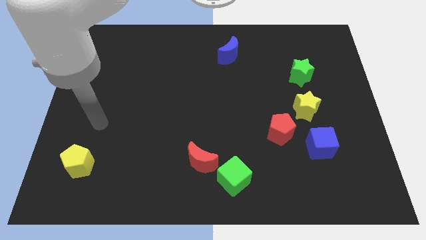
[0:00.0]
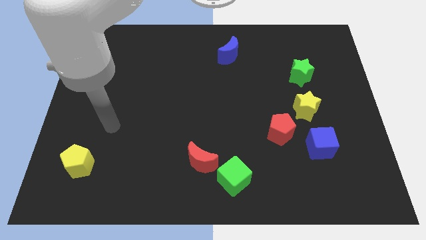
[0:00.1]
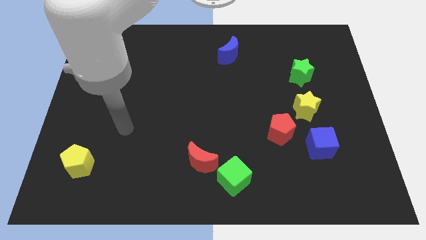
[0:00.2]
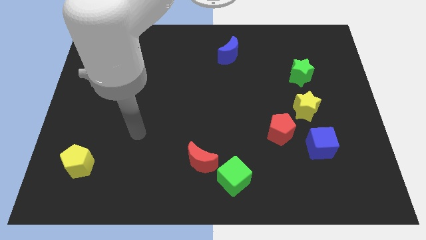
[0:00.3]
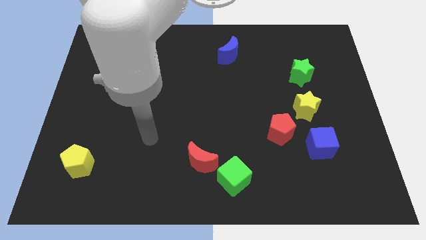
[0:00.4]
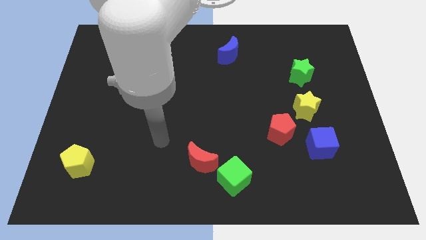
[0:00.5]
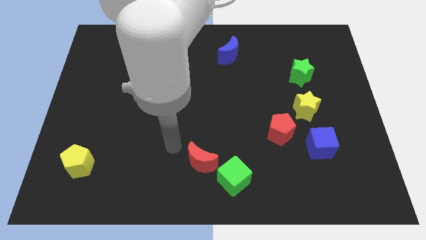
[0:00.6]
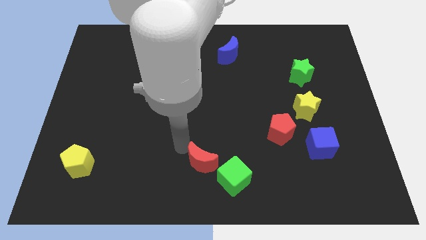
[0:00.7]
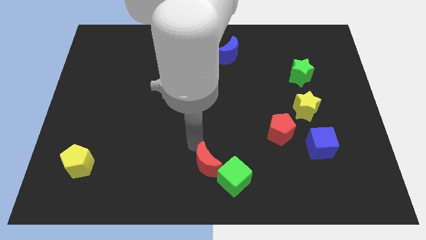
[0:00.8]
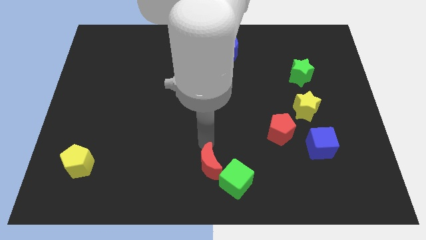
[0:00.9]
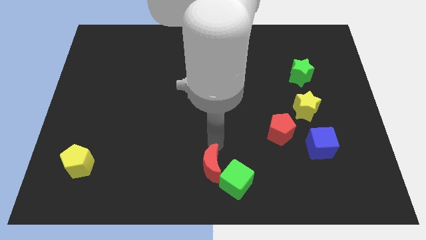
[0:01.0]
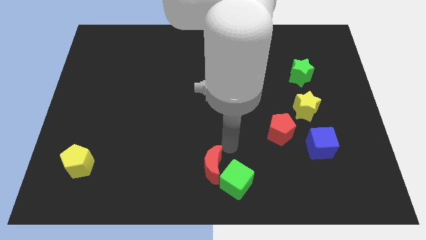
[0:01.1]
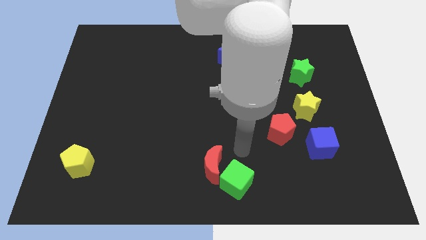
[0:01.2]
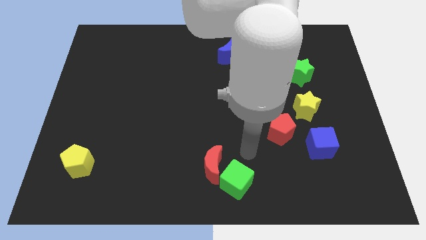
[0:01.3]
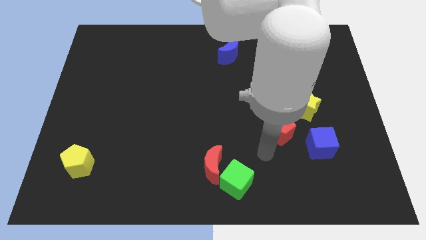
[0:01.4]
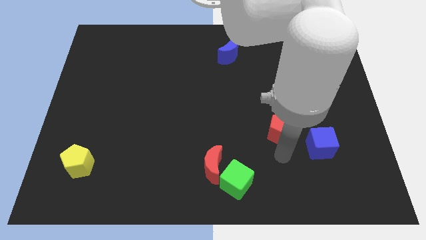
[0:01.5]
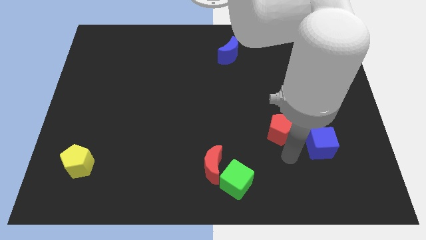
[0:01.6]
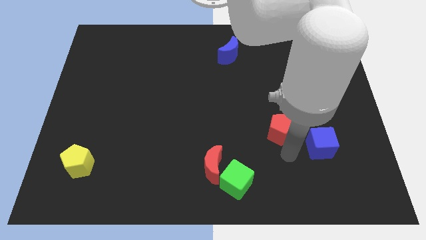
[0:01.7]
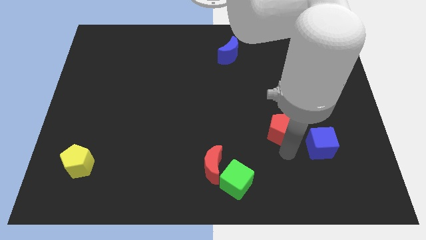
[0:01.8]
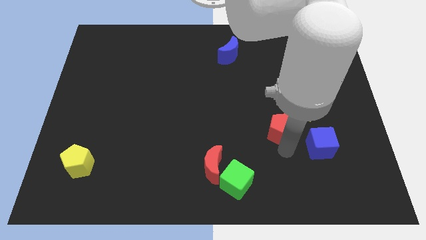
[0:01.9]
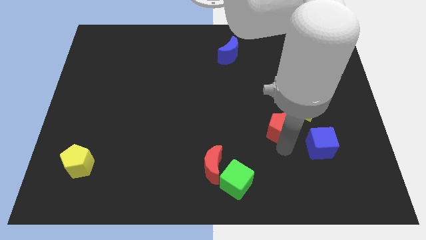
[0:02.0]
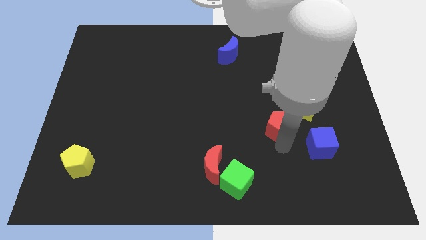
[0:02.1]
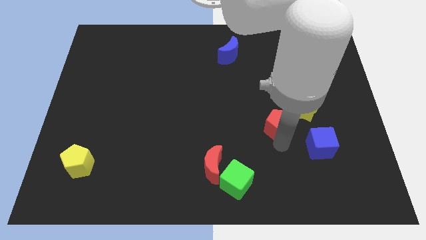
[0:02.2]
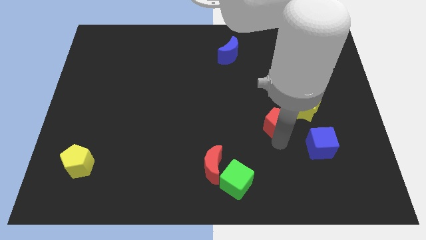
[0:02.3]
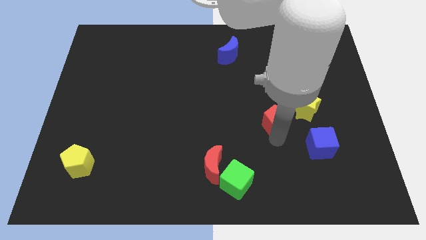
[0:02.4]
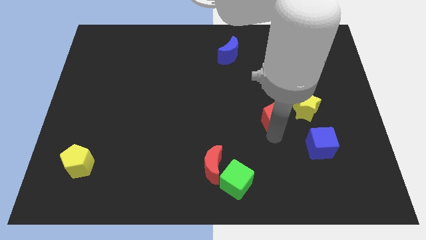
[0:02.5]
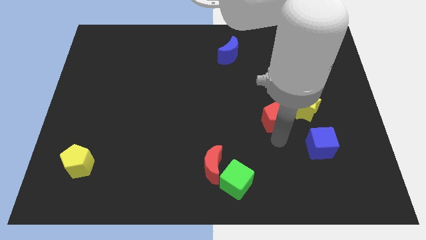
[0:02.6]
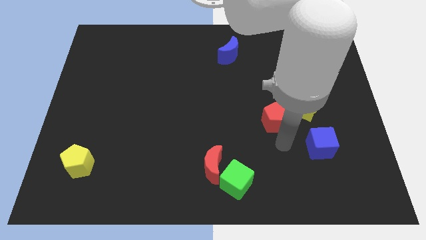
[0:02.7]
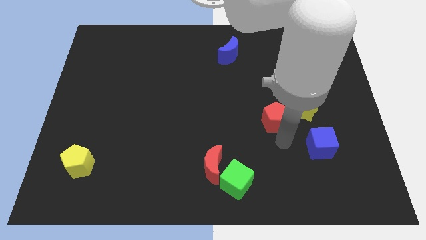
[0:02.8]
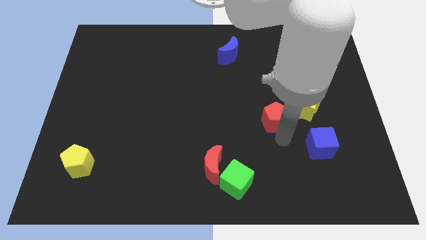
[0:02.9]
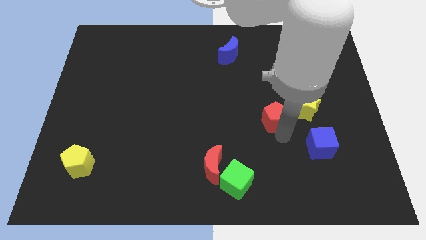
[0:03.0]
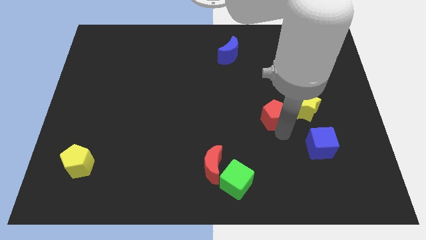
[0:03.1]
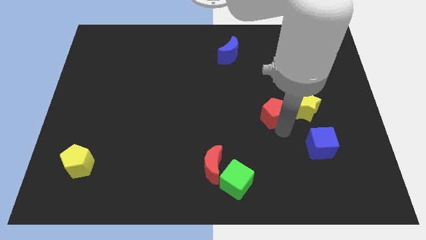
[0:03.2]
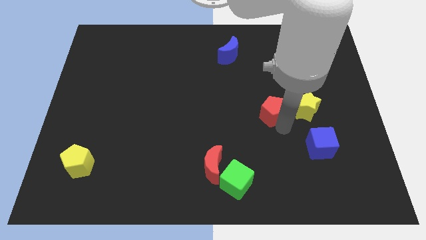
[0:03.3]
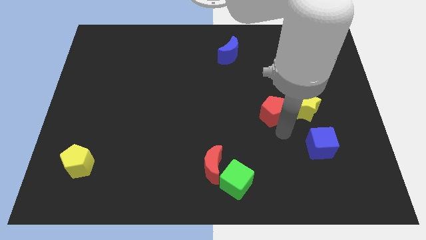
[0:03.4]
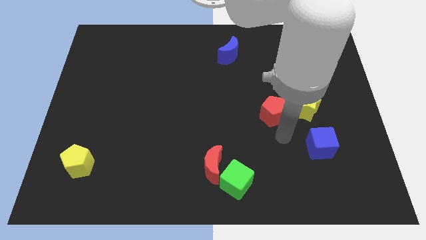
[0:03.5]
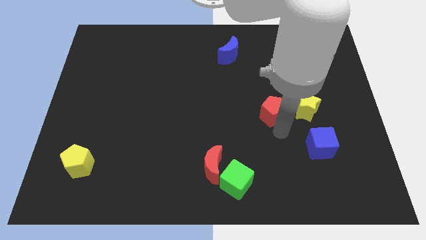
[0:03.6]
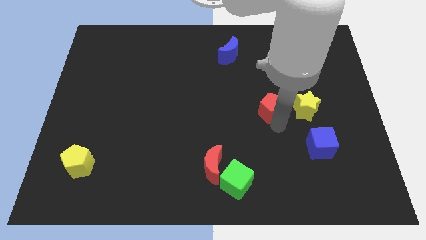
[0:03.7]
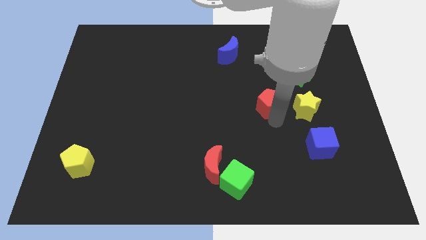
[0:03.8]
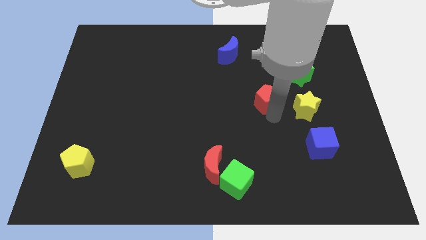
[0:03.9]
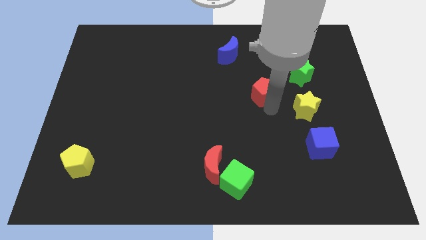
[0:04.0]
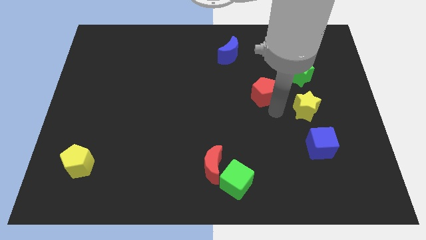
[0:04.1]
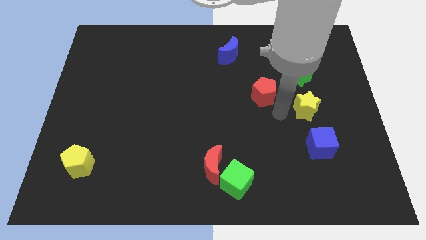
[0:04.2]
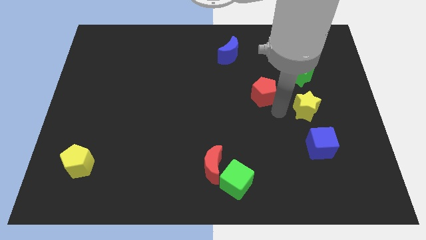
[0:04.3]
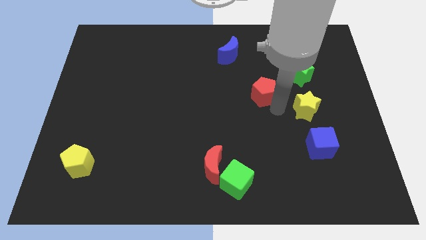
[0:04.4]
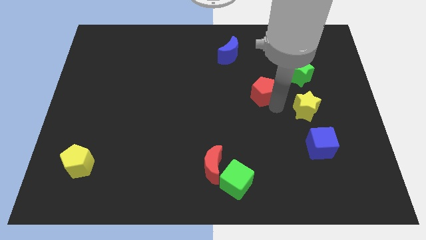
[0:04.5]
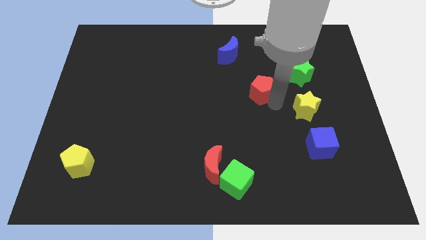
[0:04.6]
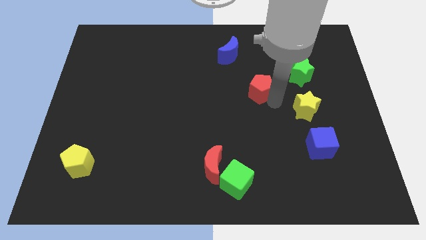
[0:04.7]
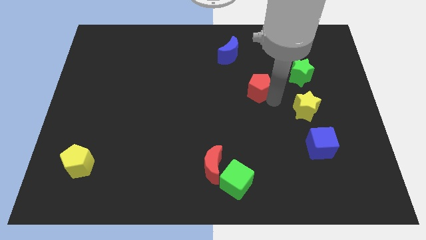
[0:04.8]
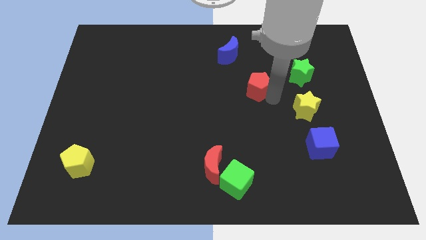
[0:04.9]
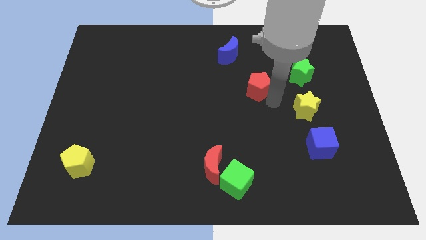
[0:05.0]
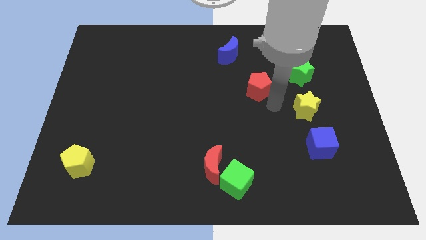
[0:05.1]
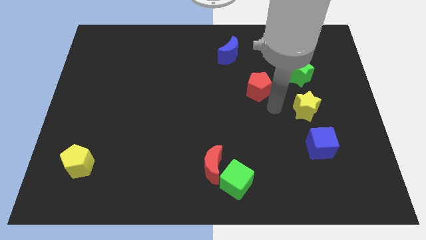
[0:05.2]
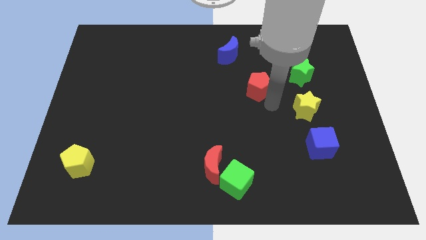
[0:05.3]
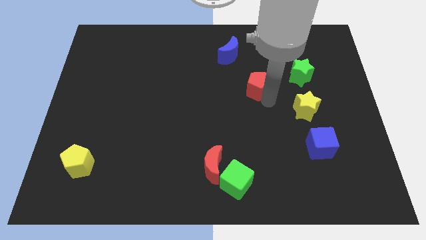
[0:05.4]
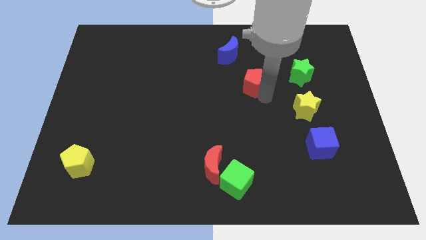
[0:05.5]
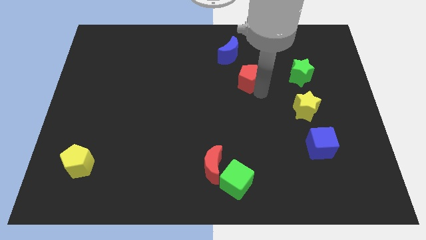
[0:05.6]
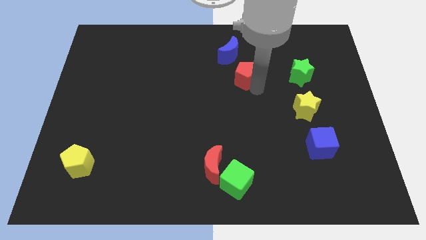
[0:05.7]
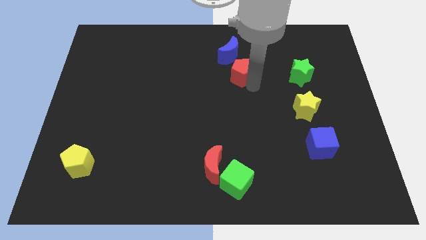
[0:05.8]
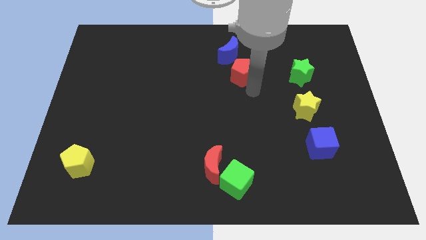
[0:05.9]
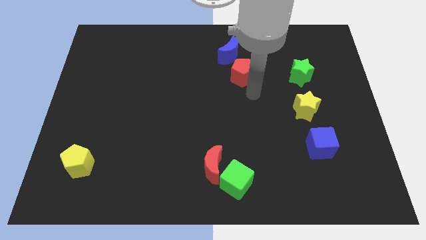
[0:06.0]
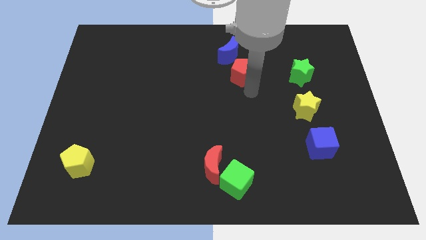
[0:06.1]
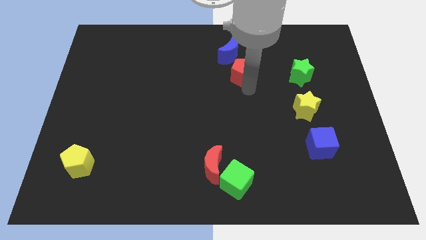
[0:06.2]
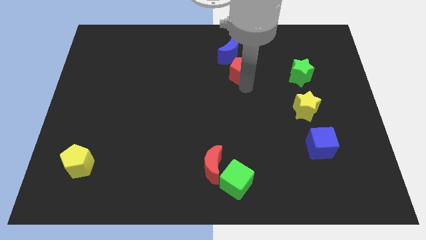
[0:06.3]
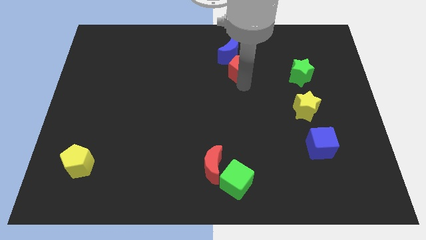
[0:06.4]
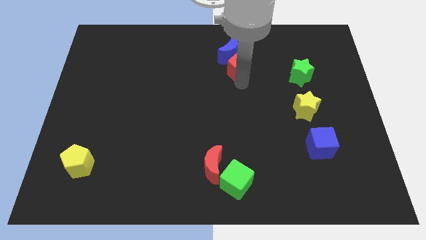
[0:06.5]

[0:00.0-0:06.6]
push the red pentagon towards the blue moon

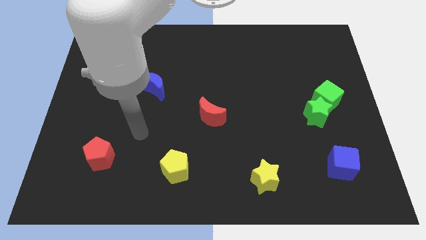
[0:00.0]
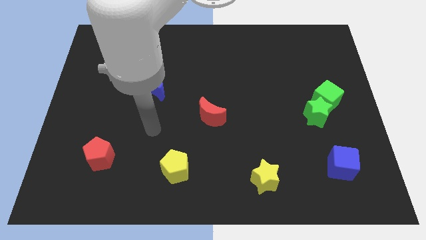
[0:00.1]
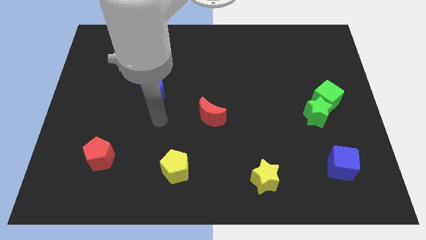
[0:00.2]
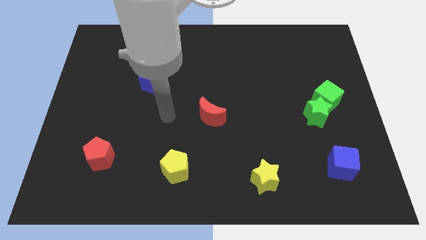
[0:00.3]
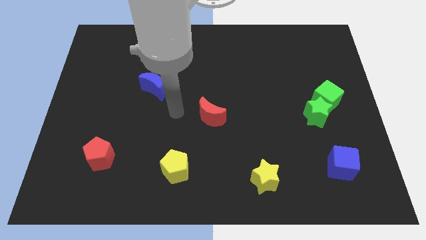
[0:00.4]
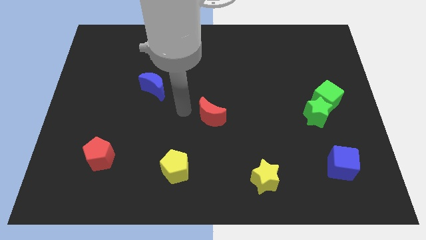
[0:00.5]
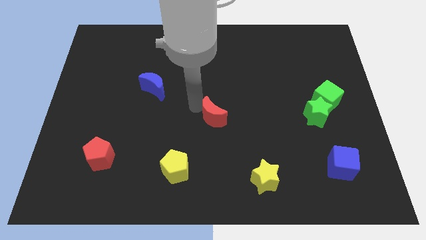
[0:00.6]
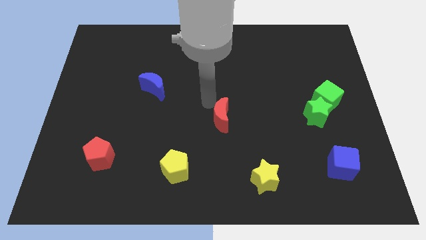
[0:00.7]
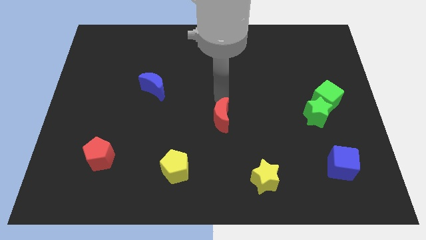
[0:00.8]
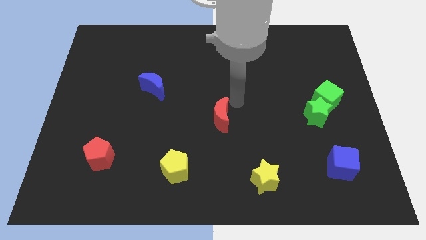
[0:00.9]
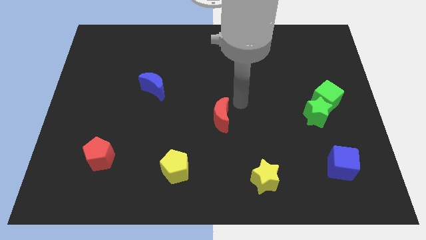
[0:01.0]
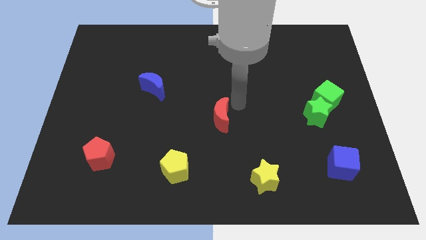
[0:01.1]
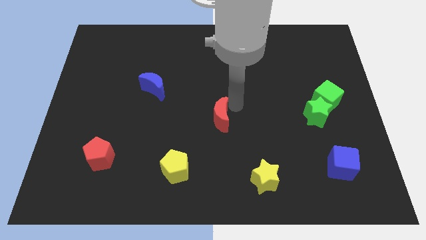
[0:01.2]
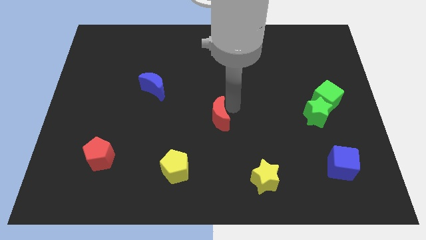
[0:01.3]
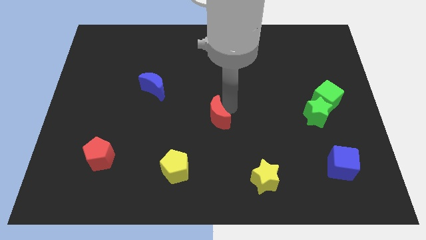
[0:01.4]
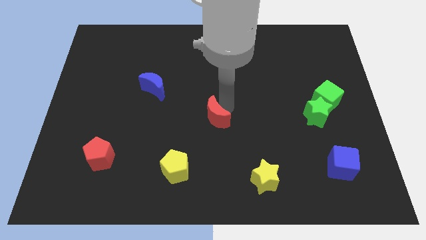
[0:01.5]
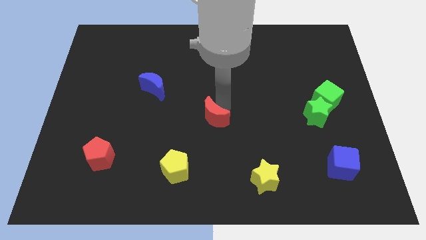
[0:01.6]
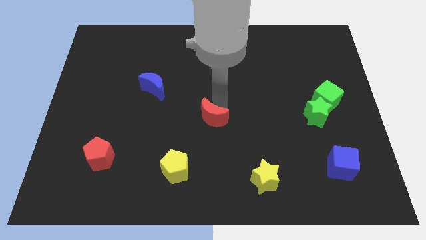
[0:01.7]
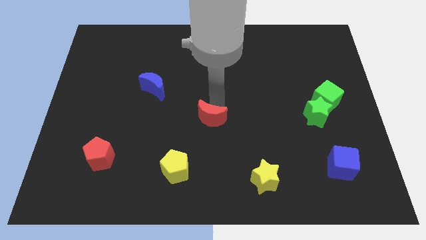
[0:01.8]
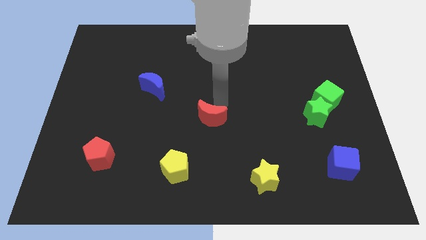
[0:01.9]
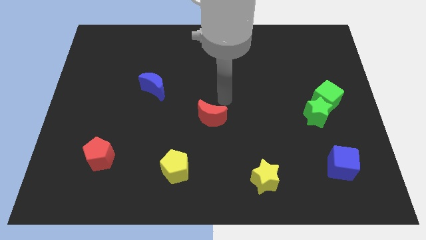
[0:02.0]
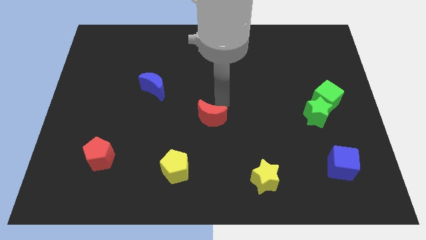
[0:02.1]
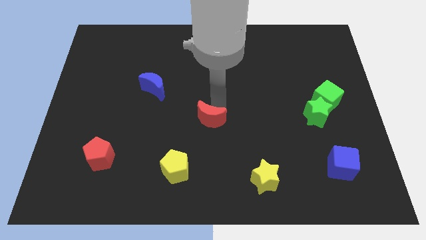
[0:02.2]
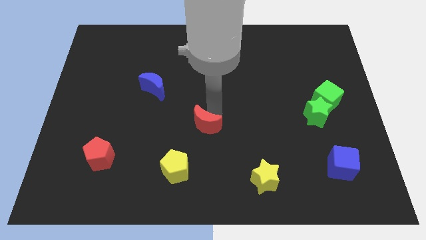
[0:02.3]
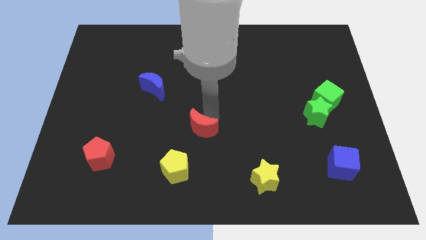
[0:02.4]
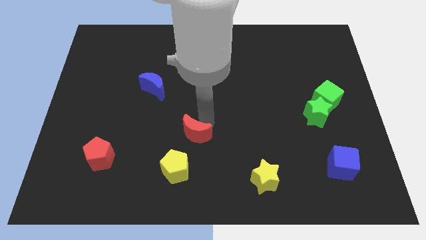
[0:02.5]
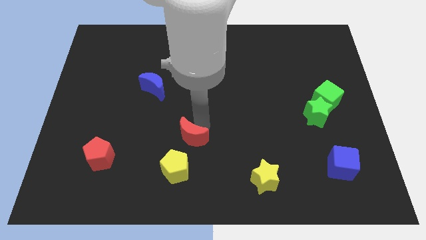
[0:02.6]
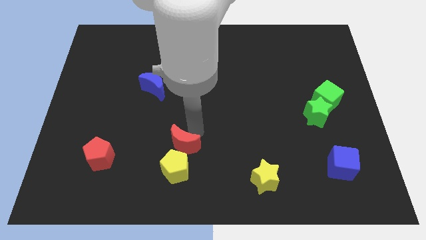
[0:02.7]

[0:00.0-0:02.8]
put the red moon to the yellow pentagon
